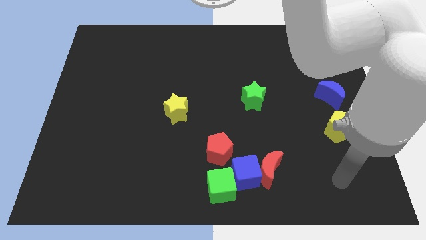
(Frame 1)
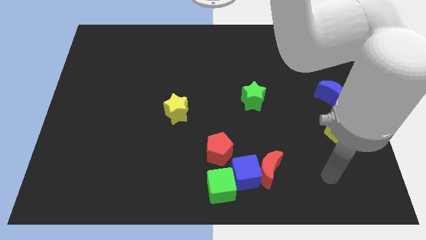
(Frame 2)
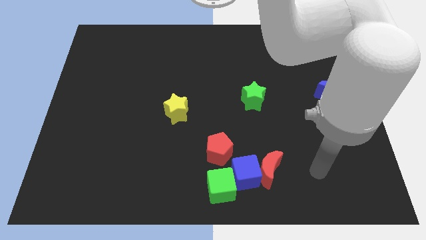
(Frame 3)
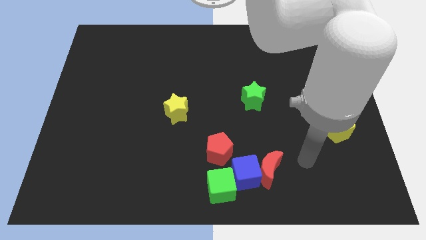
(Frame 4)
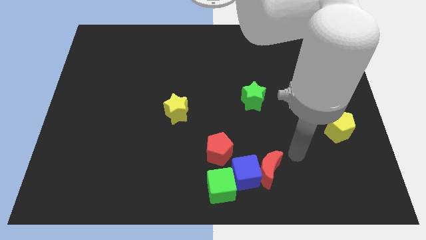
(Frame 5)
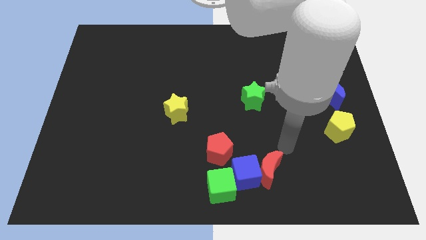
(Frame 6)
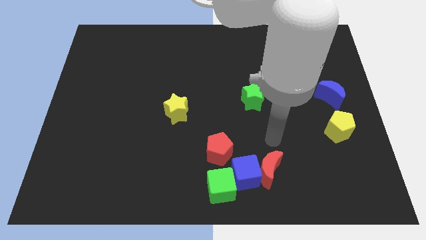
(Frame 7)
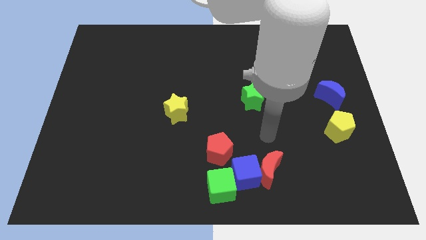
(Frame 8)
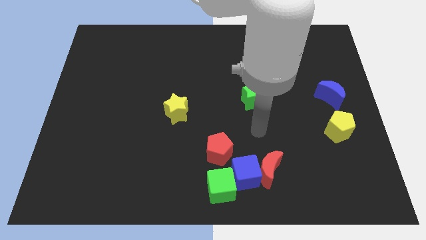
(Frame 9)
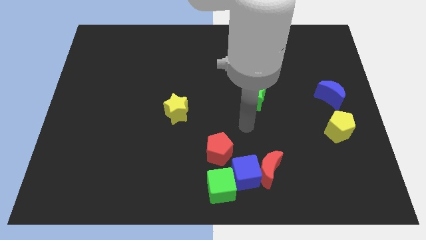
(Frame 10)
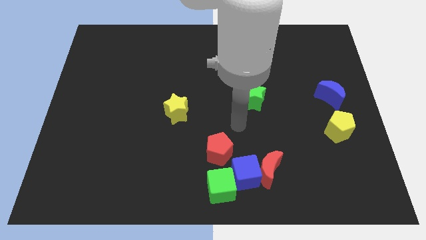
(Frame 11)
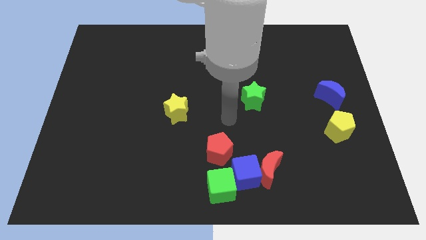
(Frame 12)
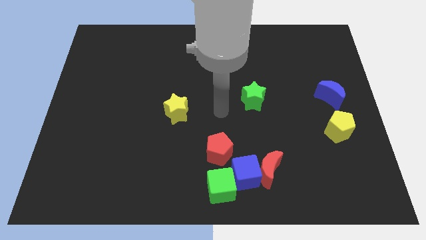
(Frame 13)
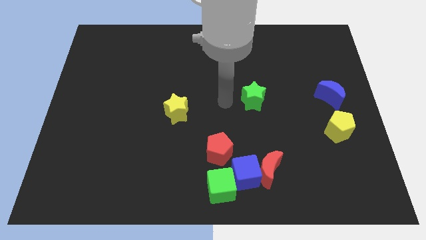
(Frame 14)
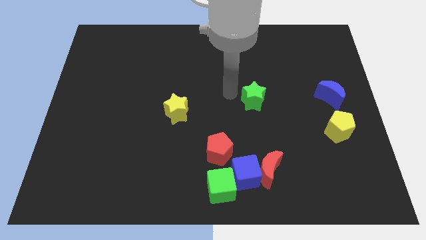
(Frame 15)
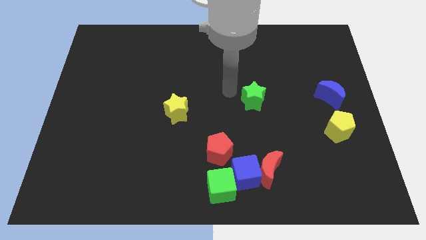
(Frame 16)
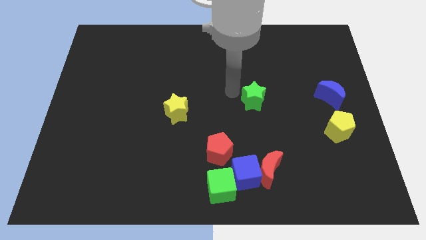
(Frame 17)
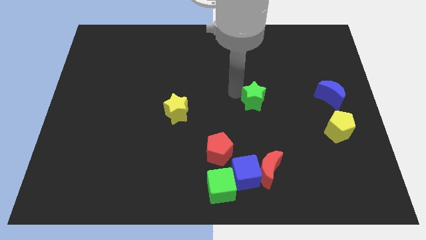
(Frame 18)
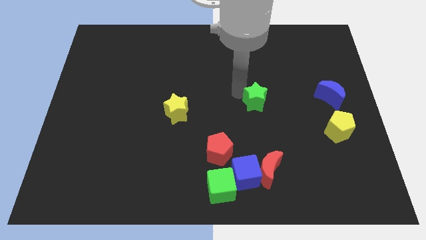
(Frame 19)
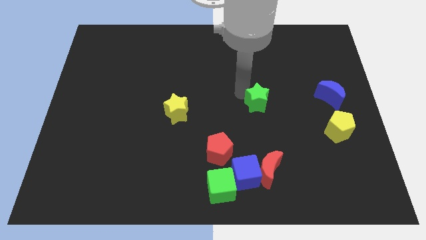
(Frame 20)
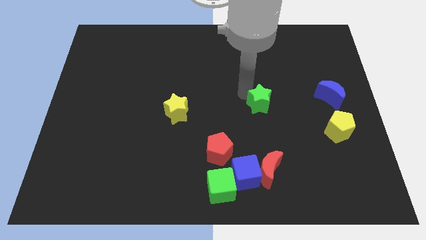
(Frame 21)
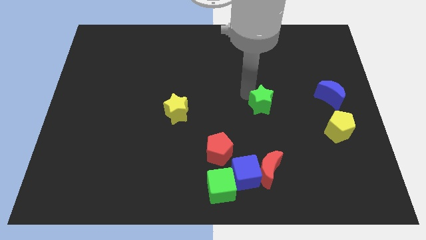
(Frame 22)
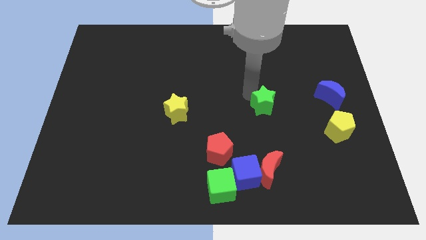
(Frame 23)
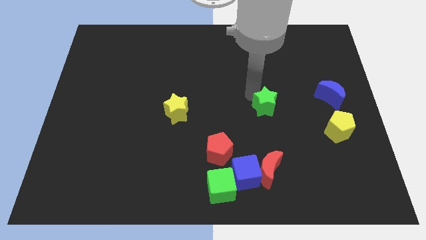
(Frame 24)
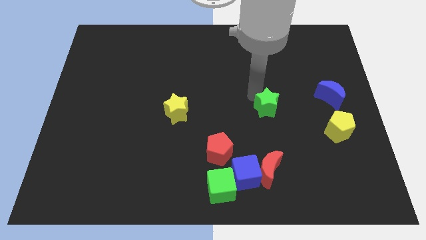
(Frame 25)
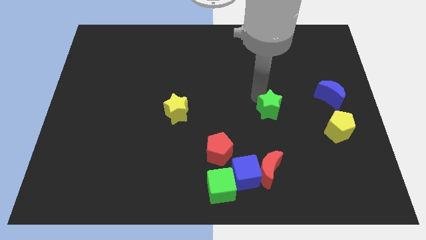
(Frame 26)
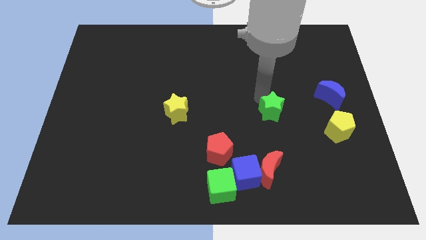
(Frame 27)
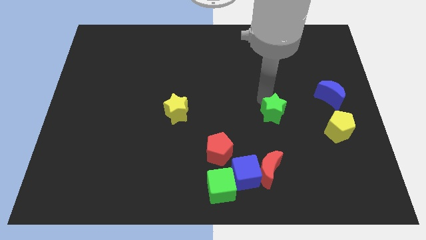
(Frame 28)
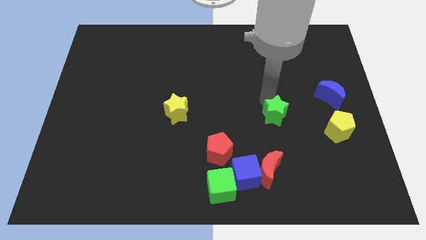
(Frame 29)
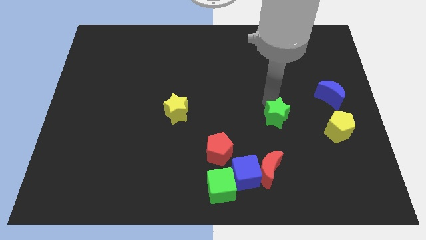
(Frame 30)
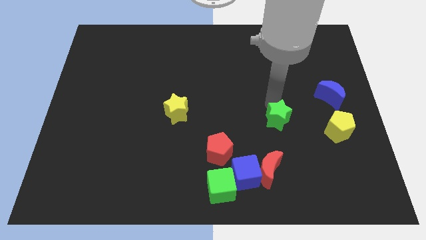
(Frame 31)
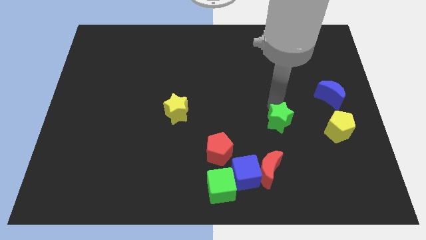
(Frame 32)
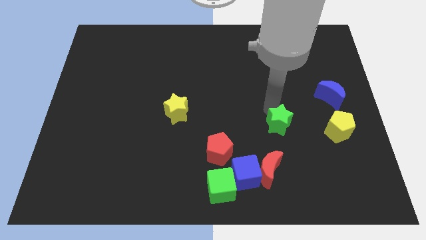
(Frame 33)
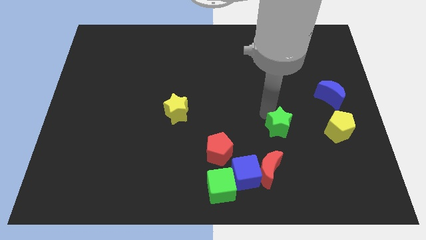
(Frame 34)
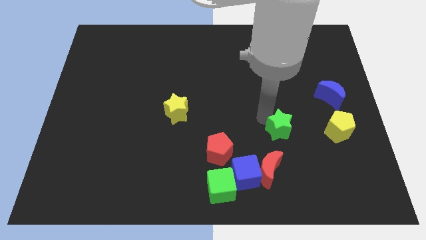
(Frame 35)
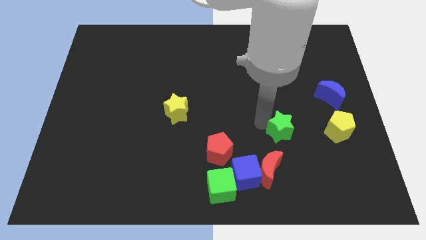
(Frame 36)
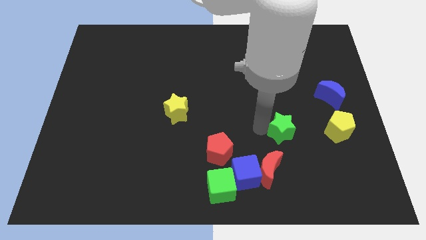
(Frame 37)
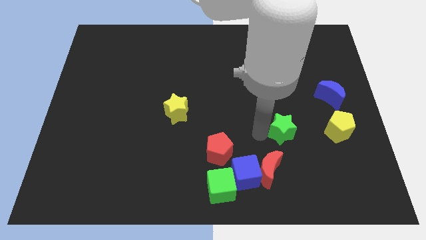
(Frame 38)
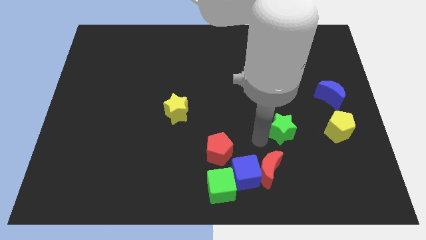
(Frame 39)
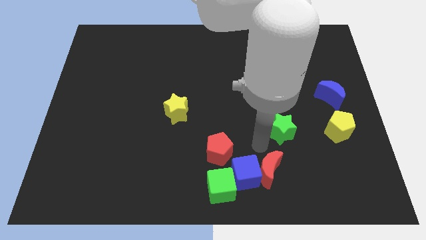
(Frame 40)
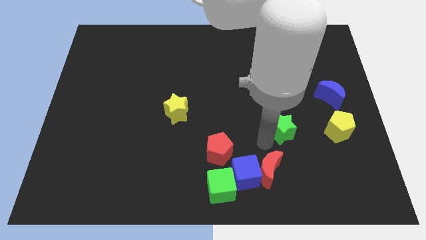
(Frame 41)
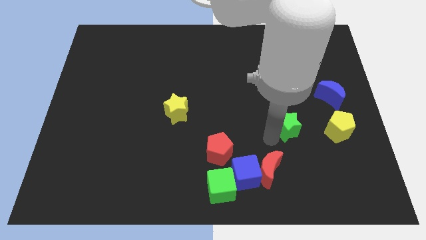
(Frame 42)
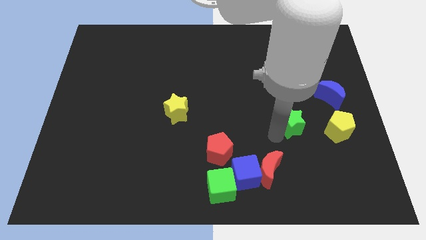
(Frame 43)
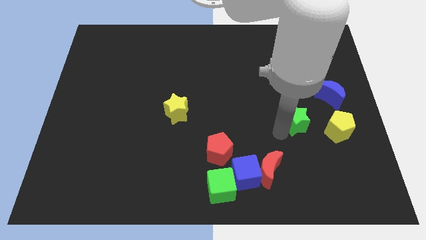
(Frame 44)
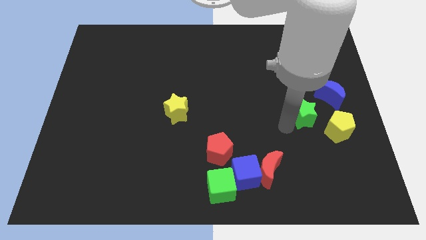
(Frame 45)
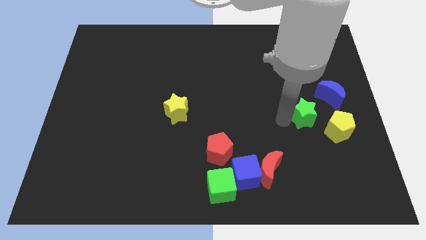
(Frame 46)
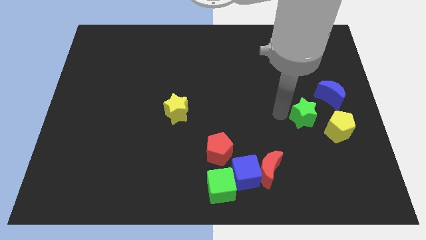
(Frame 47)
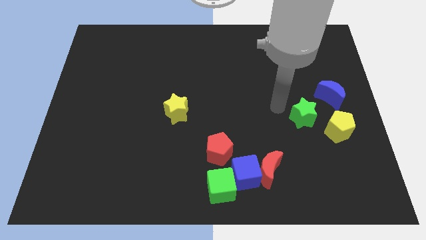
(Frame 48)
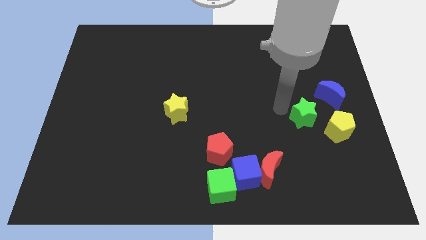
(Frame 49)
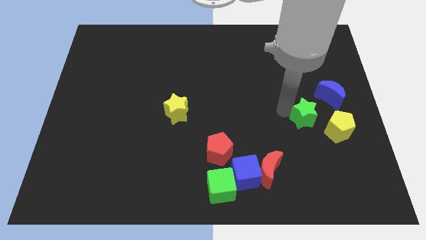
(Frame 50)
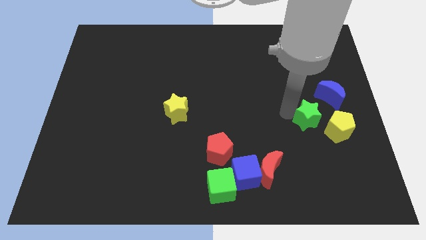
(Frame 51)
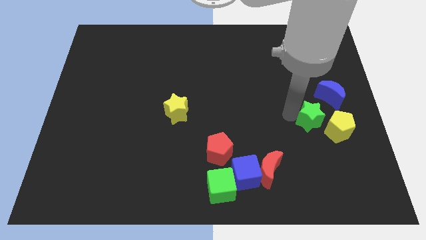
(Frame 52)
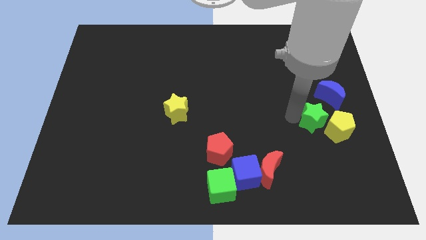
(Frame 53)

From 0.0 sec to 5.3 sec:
put the green star close to the yellow pentagon
